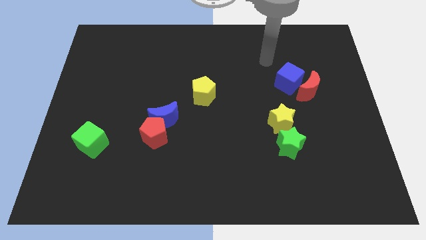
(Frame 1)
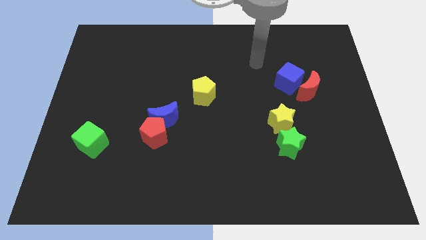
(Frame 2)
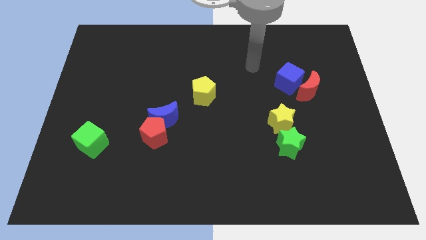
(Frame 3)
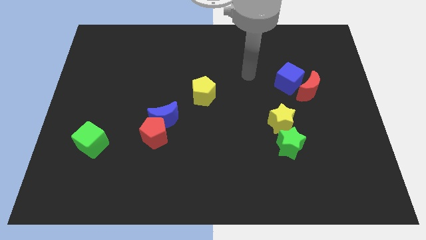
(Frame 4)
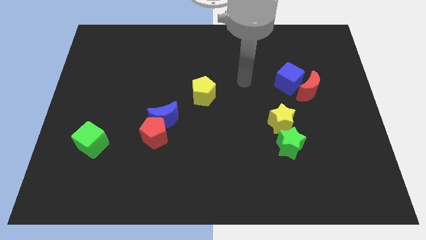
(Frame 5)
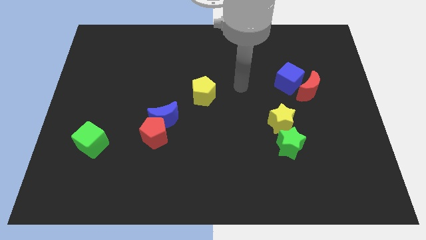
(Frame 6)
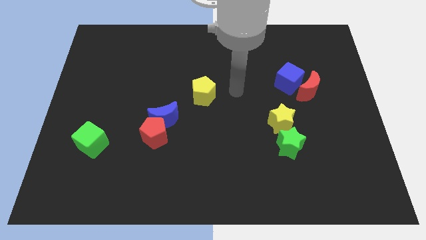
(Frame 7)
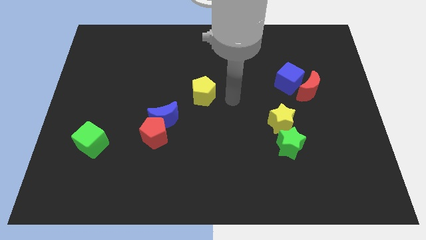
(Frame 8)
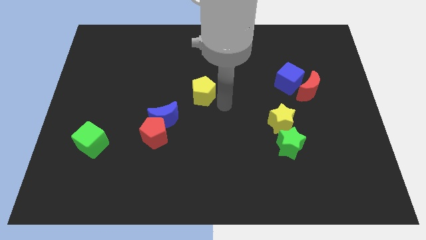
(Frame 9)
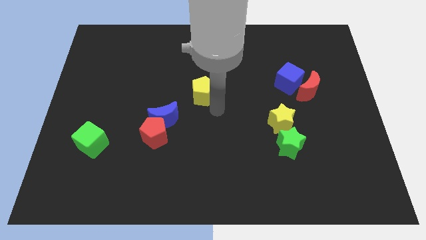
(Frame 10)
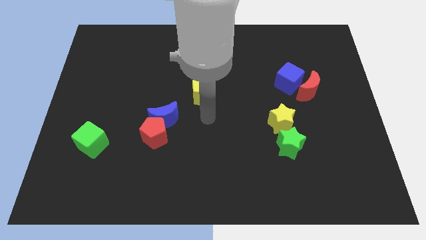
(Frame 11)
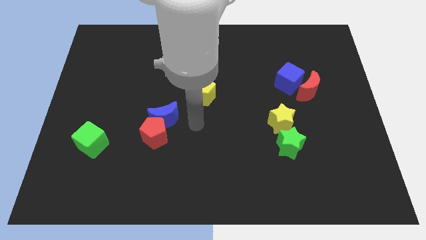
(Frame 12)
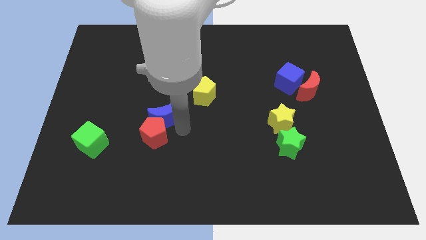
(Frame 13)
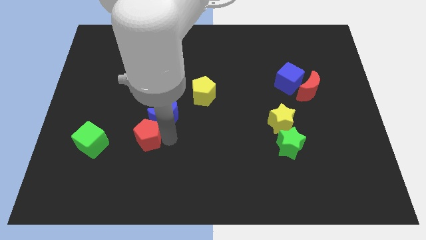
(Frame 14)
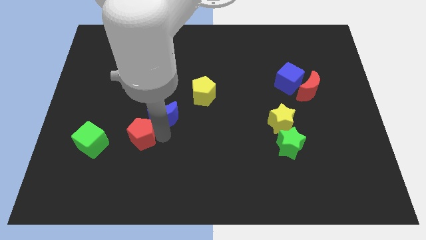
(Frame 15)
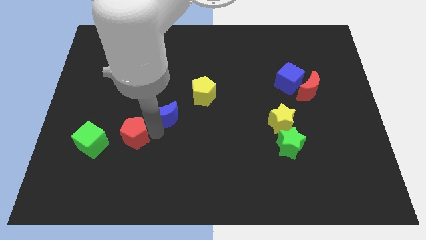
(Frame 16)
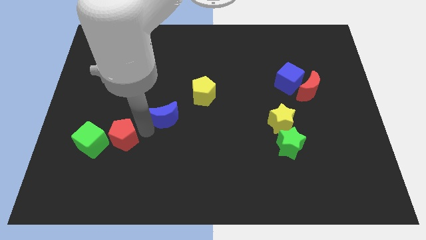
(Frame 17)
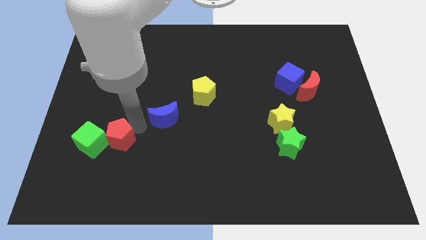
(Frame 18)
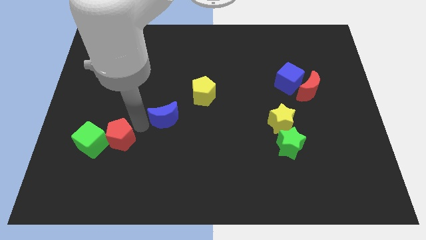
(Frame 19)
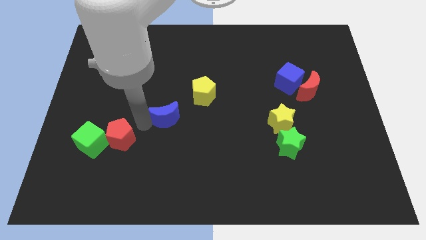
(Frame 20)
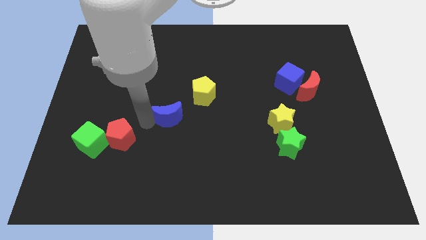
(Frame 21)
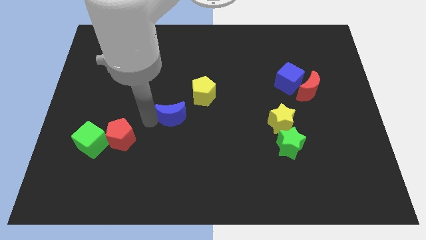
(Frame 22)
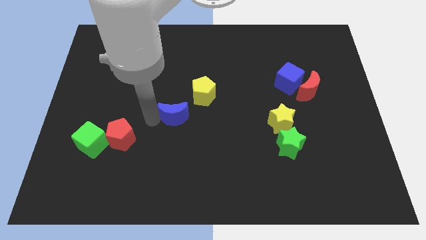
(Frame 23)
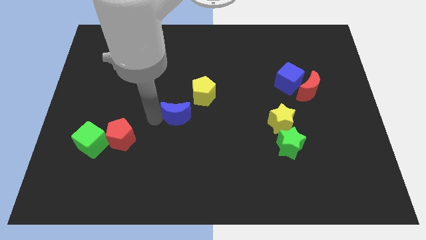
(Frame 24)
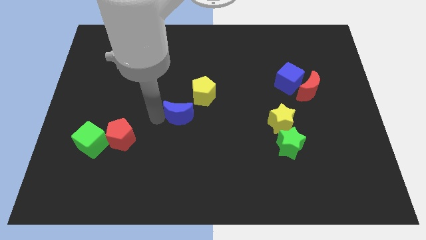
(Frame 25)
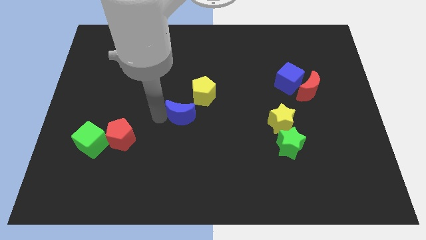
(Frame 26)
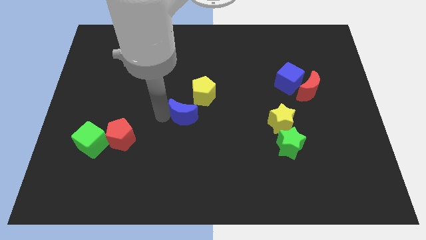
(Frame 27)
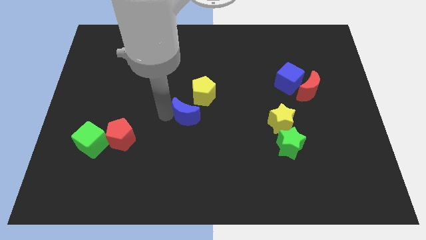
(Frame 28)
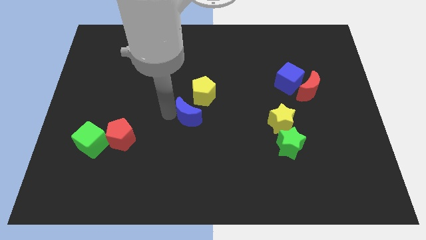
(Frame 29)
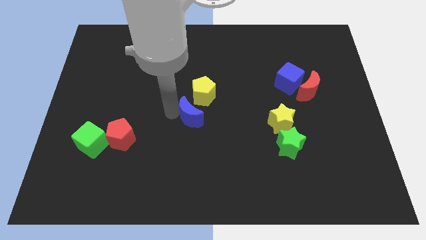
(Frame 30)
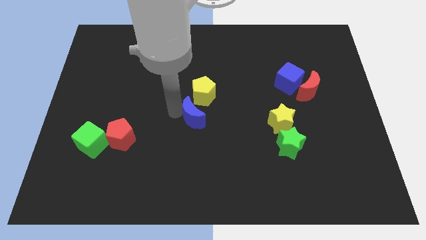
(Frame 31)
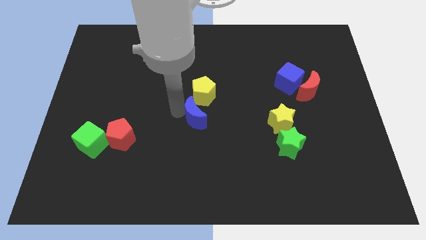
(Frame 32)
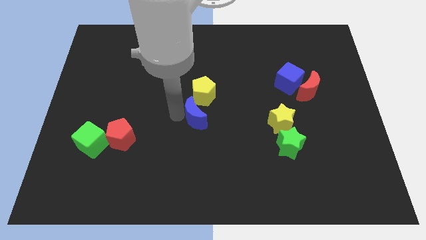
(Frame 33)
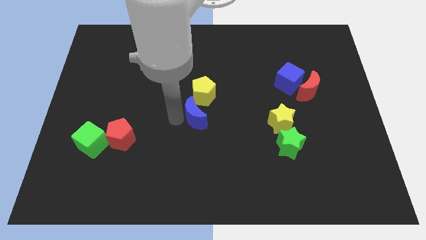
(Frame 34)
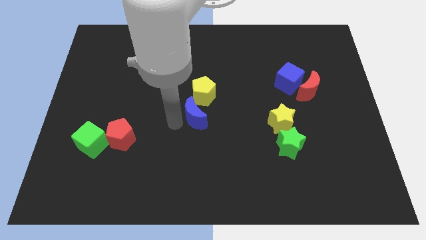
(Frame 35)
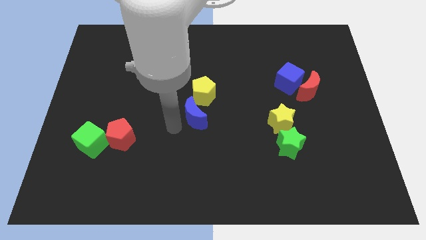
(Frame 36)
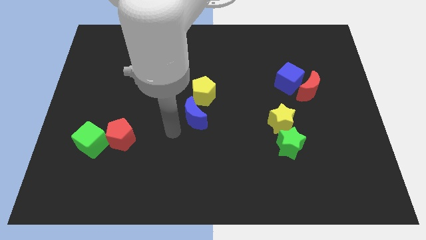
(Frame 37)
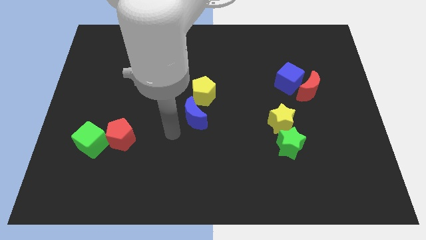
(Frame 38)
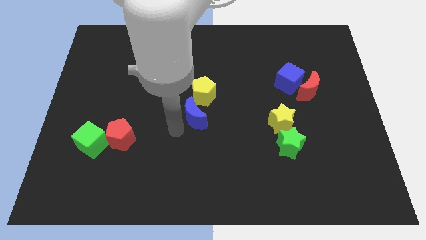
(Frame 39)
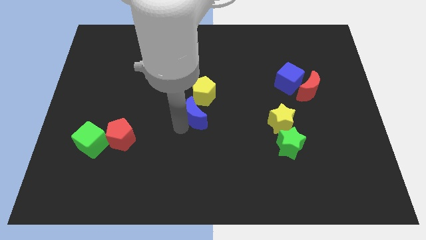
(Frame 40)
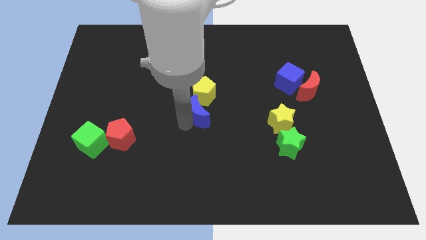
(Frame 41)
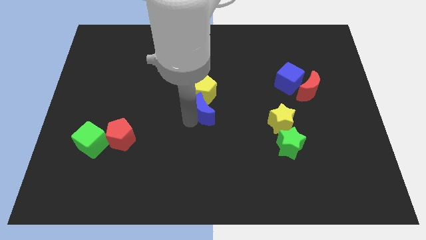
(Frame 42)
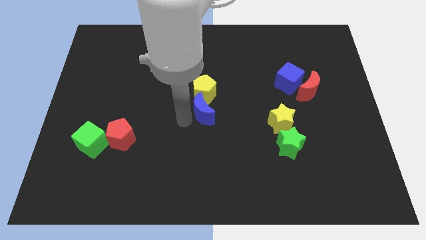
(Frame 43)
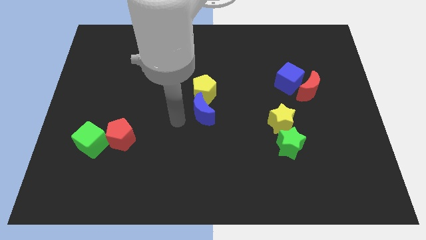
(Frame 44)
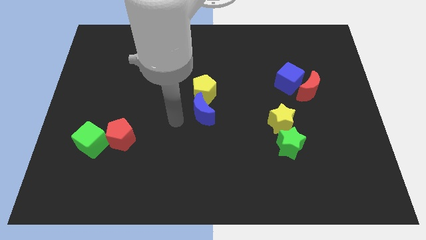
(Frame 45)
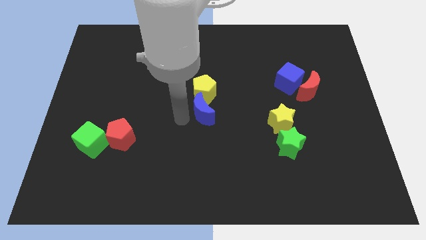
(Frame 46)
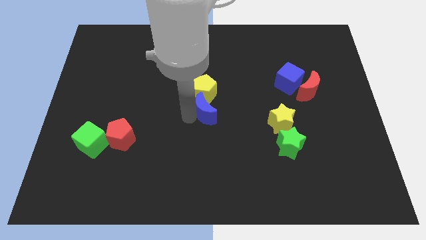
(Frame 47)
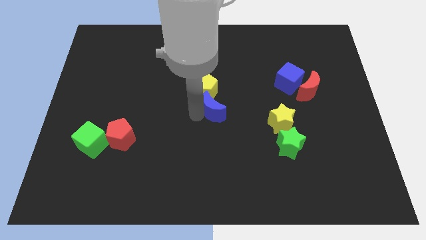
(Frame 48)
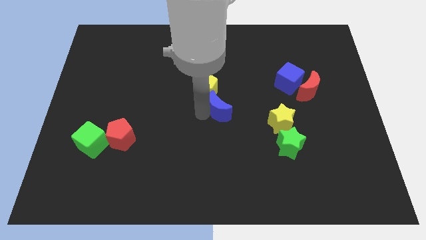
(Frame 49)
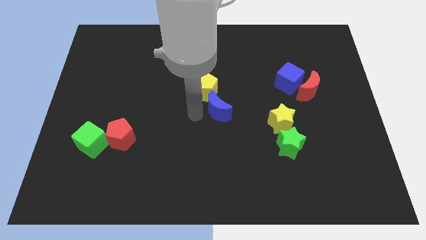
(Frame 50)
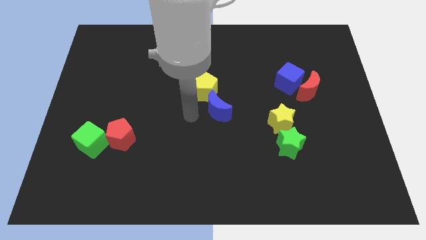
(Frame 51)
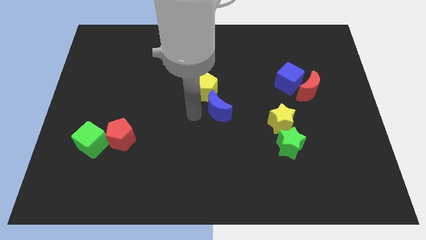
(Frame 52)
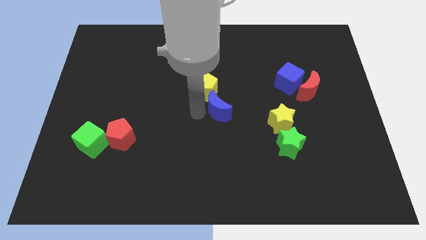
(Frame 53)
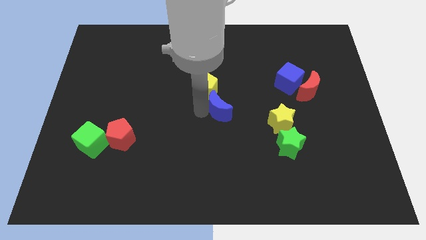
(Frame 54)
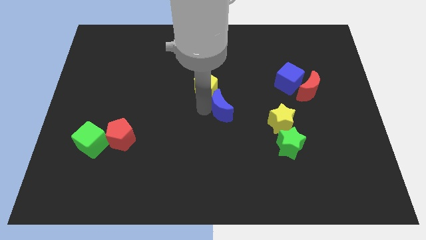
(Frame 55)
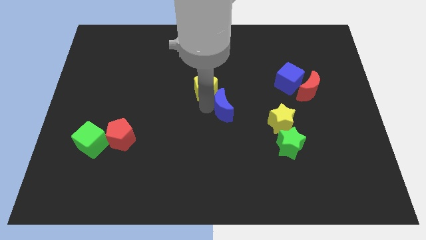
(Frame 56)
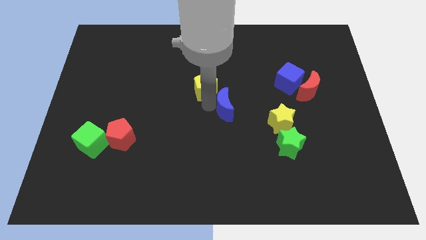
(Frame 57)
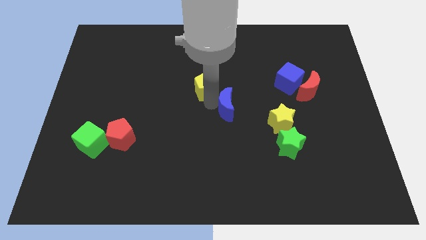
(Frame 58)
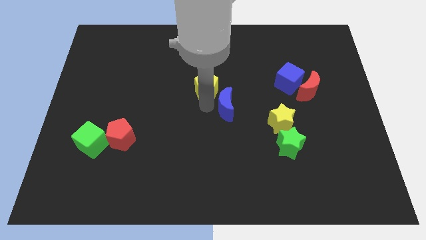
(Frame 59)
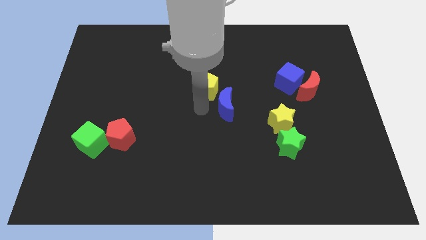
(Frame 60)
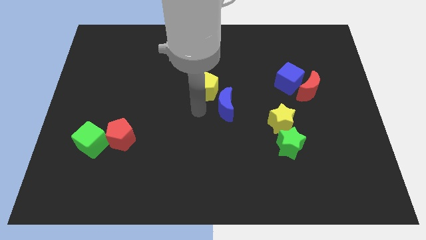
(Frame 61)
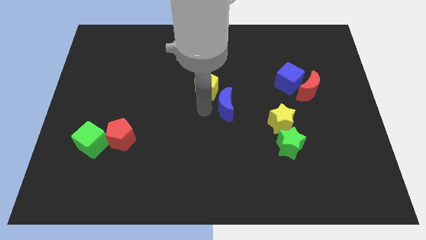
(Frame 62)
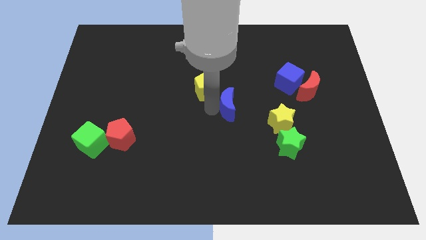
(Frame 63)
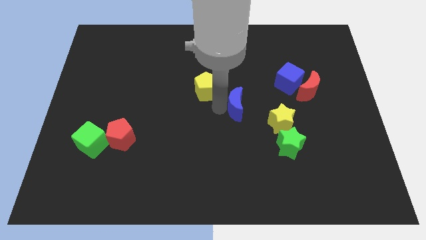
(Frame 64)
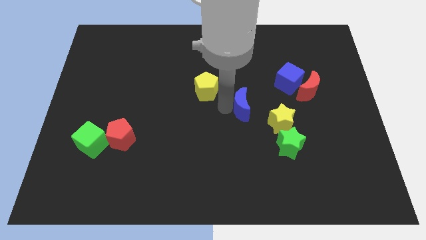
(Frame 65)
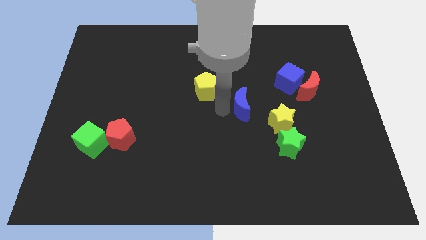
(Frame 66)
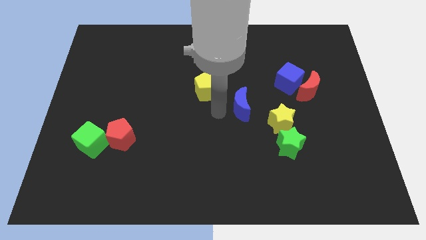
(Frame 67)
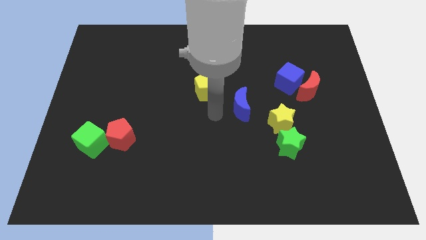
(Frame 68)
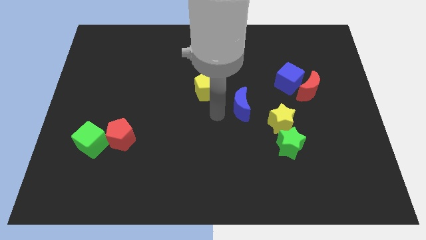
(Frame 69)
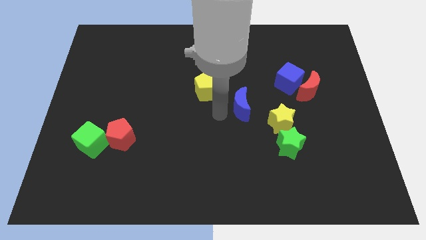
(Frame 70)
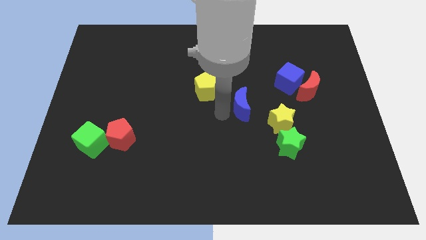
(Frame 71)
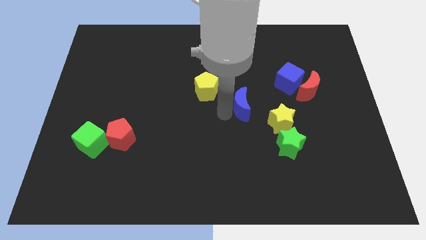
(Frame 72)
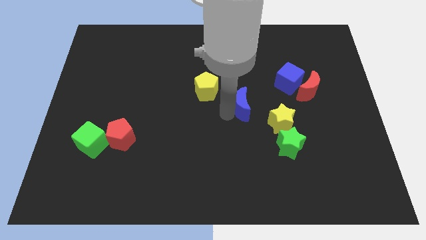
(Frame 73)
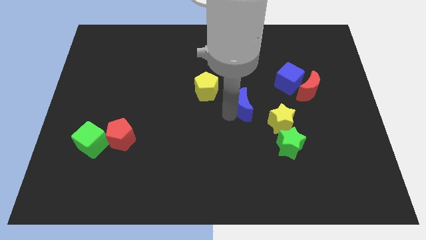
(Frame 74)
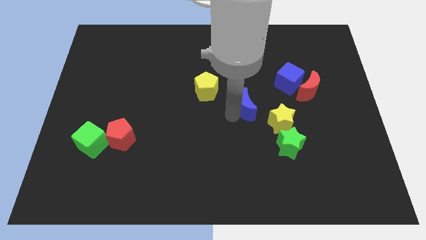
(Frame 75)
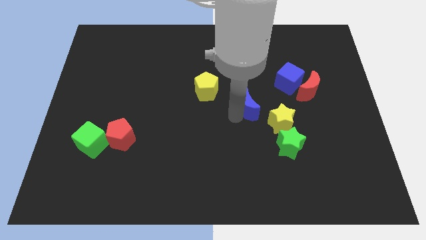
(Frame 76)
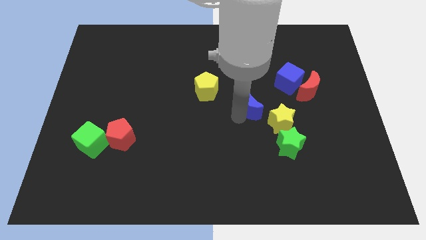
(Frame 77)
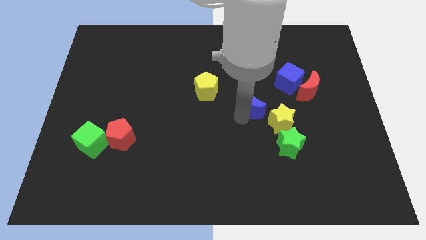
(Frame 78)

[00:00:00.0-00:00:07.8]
slide the blue moon to the bottom left side of the blue cube
